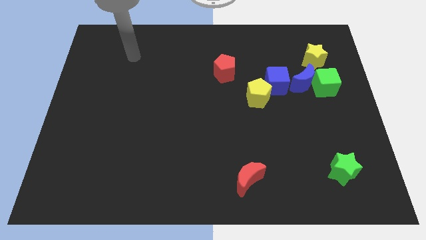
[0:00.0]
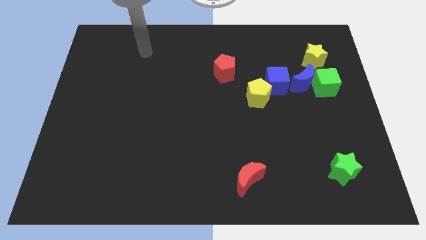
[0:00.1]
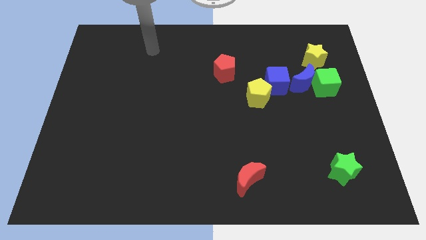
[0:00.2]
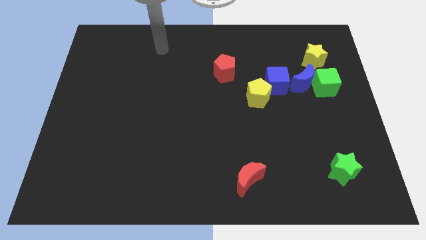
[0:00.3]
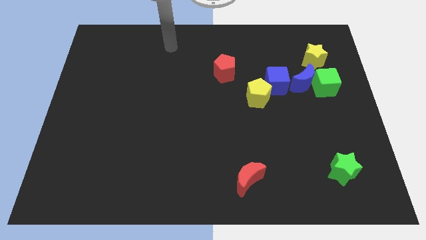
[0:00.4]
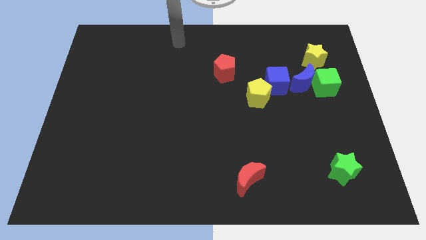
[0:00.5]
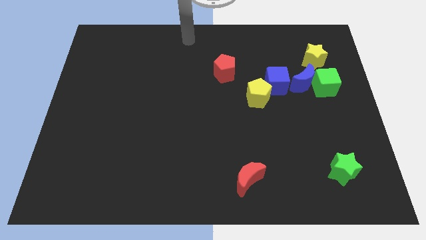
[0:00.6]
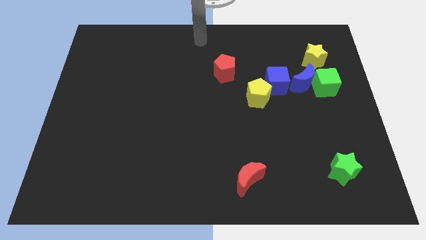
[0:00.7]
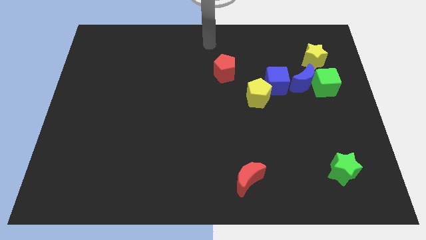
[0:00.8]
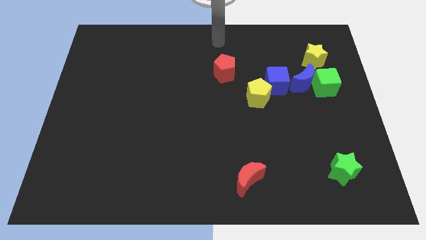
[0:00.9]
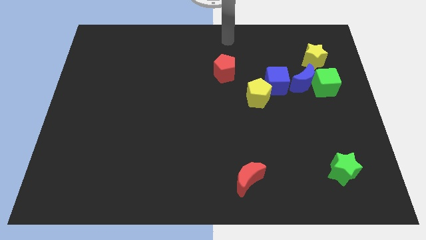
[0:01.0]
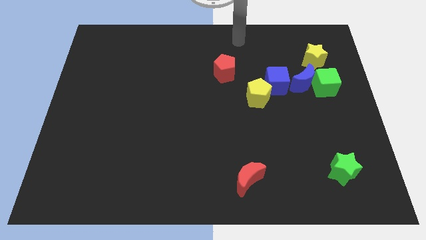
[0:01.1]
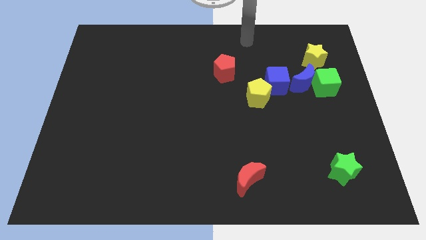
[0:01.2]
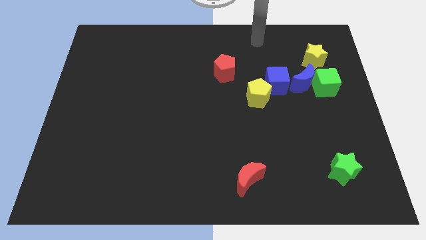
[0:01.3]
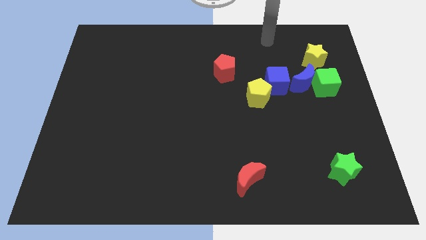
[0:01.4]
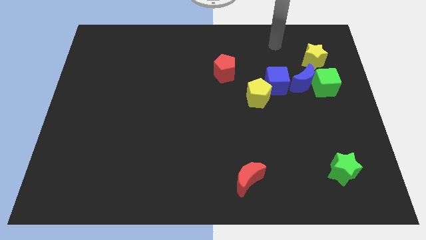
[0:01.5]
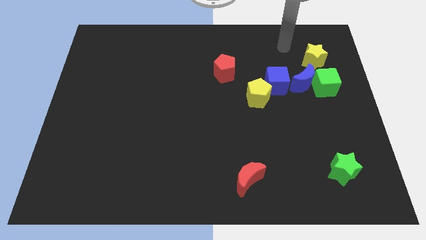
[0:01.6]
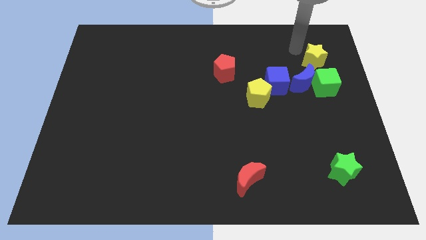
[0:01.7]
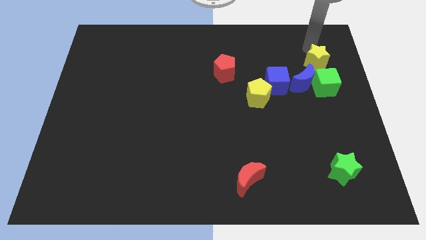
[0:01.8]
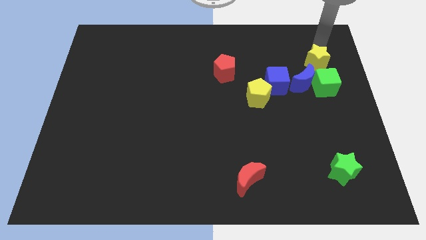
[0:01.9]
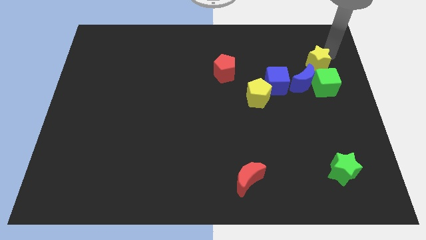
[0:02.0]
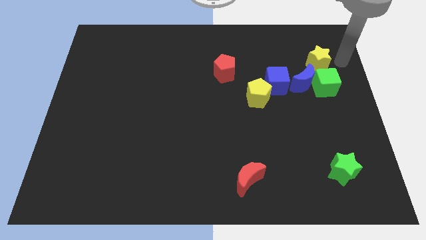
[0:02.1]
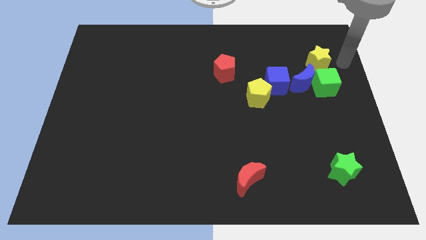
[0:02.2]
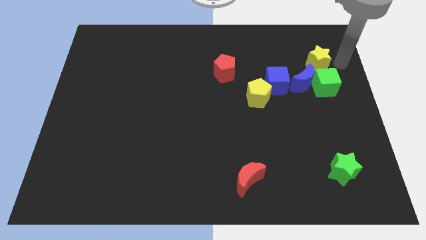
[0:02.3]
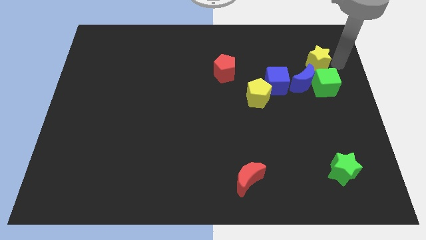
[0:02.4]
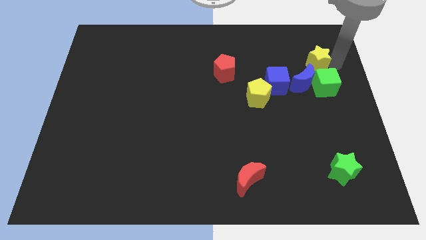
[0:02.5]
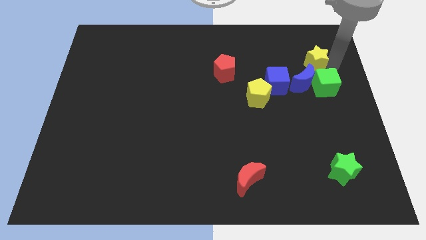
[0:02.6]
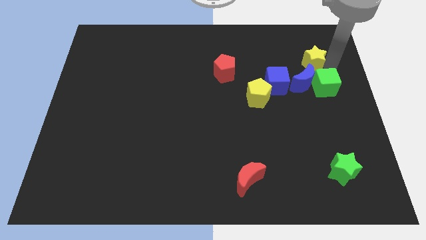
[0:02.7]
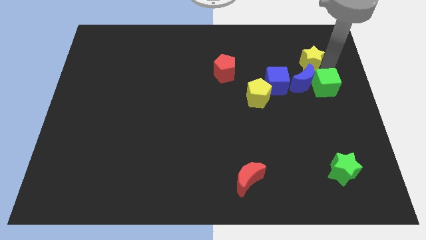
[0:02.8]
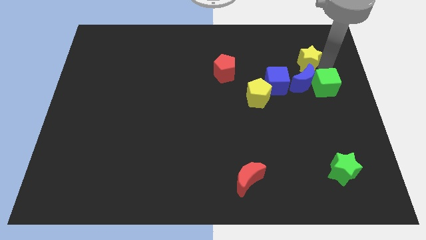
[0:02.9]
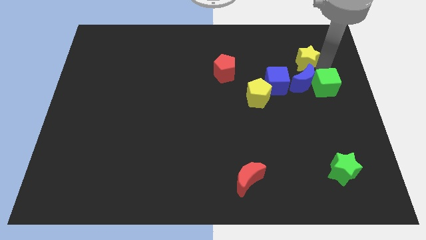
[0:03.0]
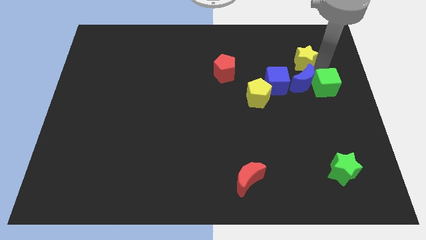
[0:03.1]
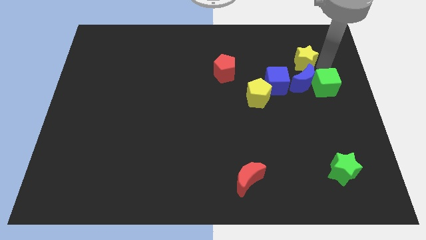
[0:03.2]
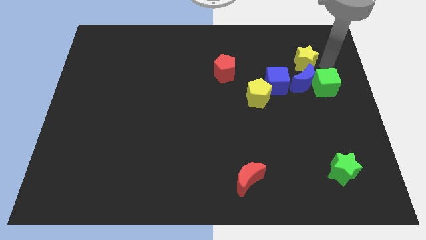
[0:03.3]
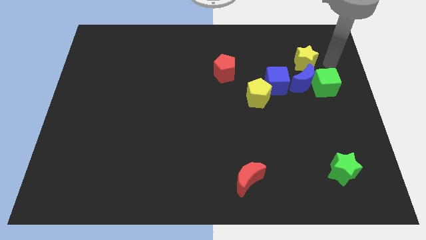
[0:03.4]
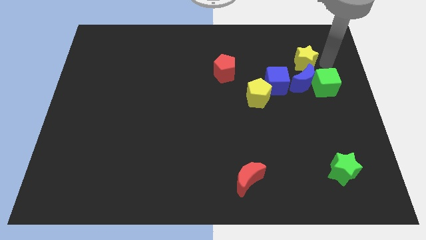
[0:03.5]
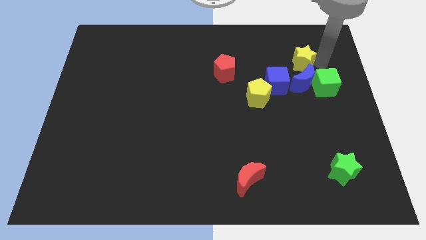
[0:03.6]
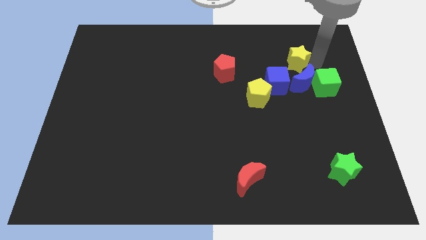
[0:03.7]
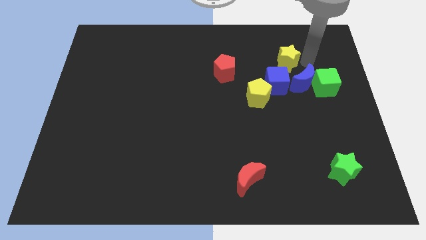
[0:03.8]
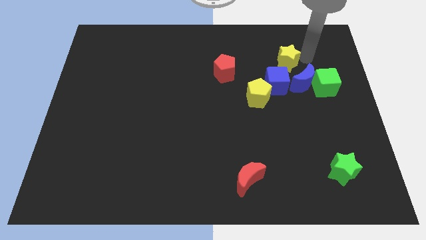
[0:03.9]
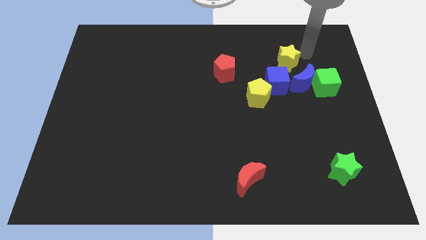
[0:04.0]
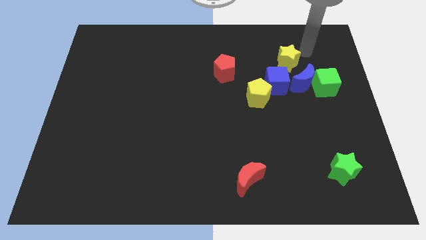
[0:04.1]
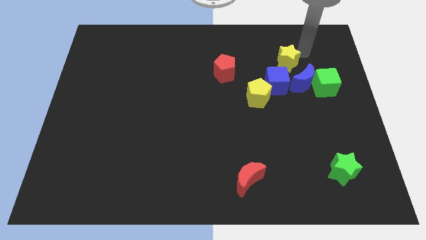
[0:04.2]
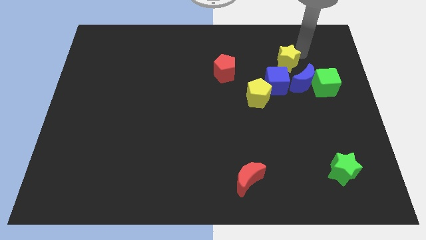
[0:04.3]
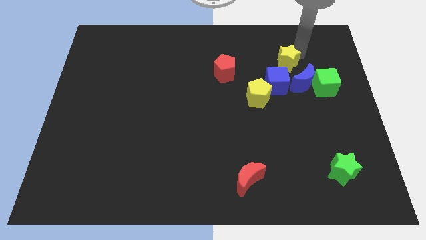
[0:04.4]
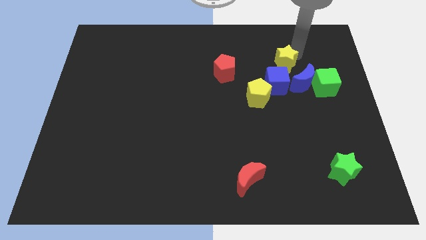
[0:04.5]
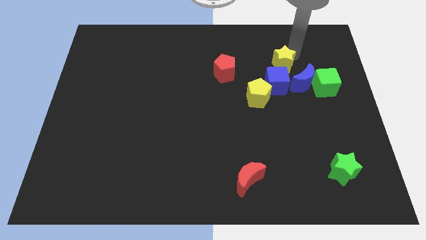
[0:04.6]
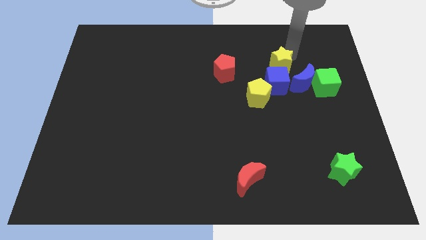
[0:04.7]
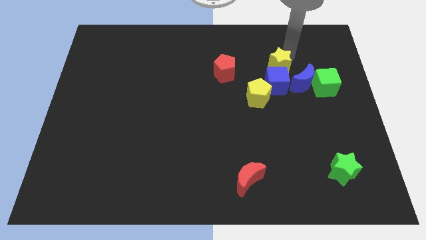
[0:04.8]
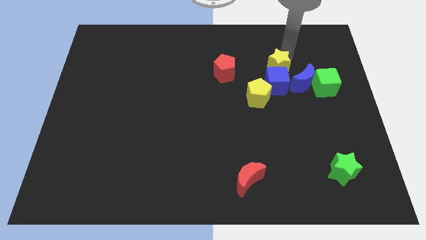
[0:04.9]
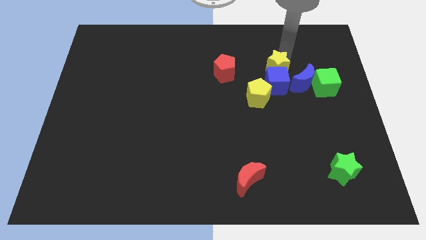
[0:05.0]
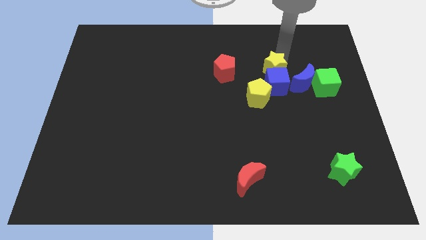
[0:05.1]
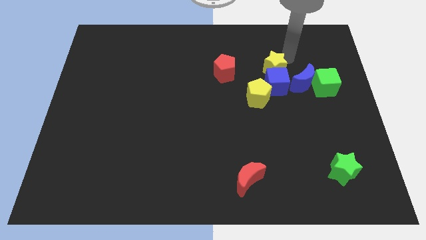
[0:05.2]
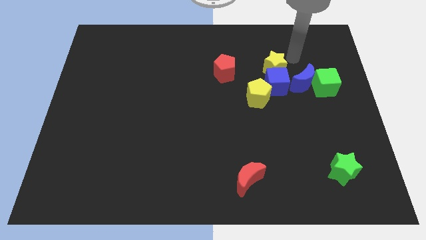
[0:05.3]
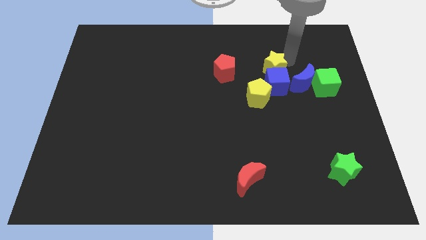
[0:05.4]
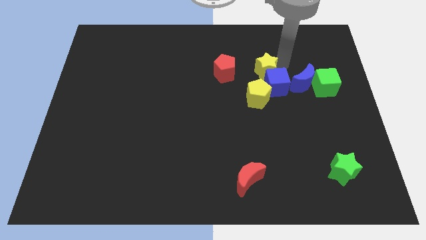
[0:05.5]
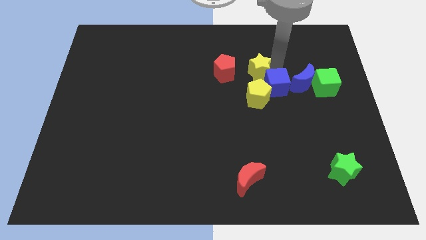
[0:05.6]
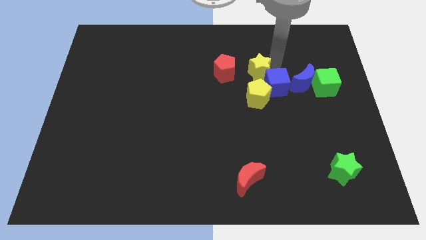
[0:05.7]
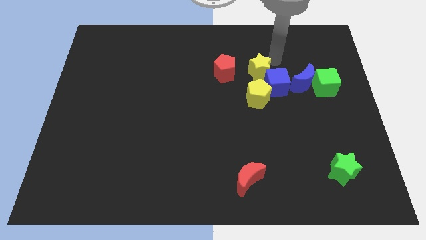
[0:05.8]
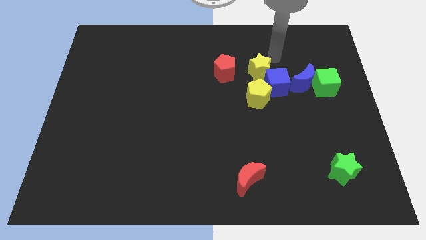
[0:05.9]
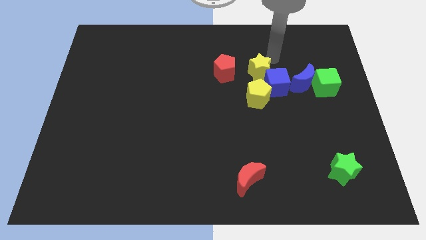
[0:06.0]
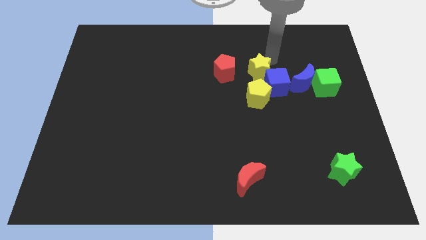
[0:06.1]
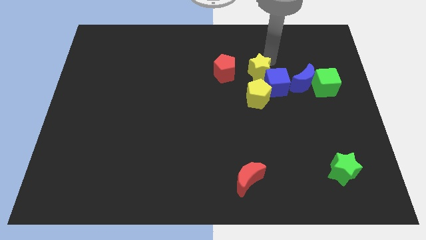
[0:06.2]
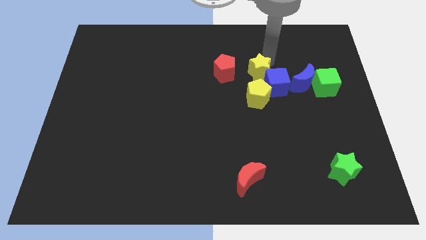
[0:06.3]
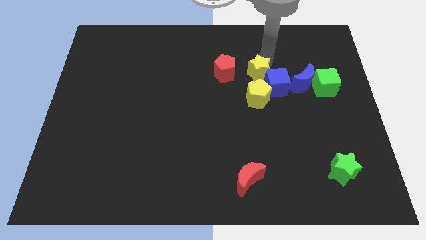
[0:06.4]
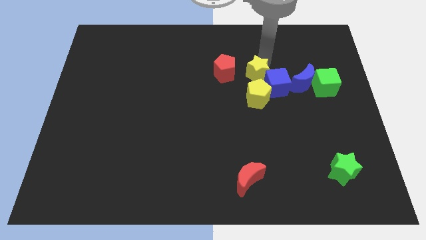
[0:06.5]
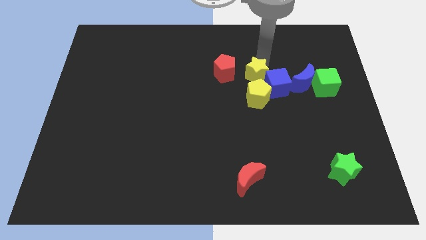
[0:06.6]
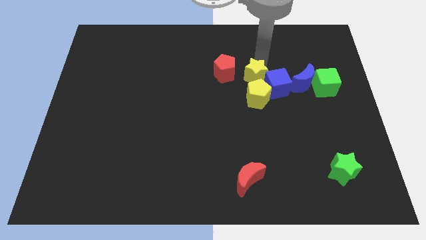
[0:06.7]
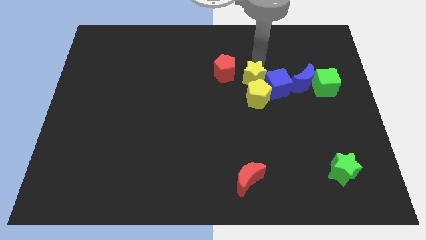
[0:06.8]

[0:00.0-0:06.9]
move the yellow star to the center of the board
